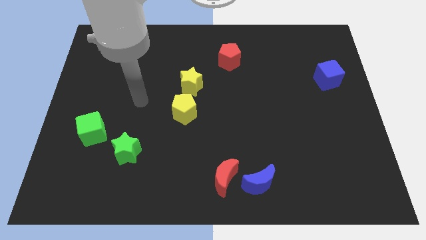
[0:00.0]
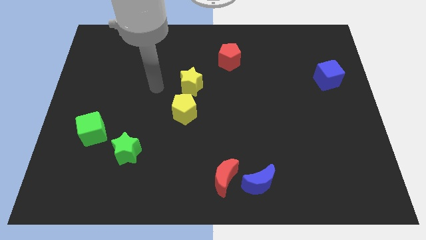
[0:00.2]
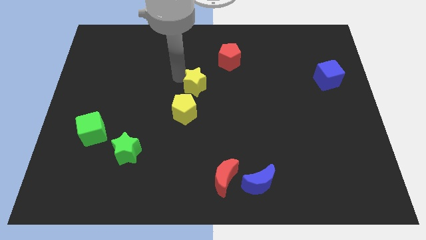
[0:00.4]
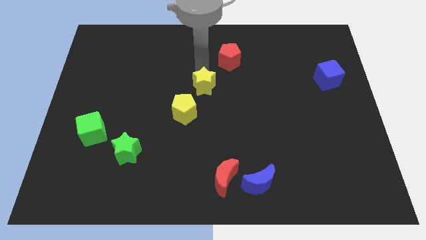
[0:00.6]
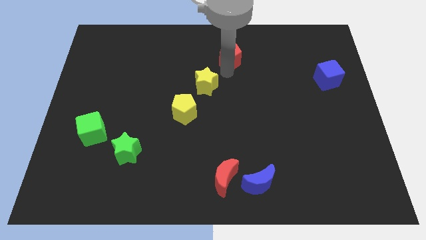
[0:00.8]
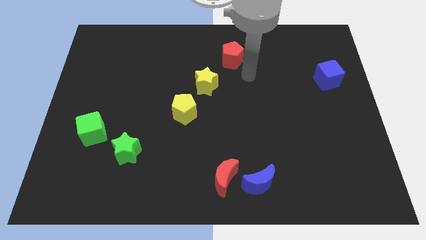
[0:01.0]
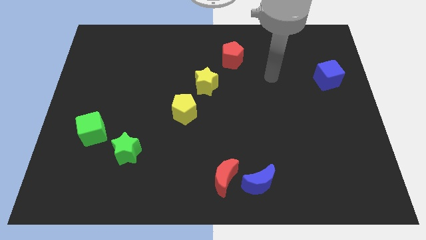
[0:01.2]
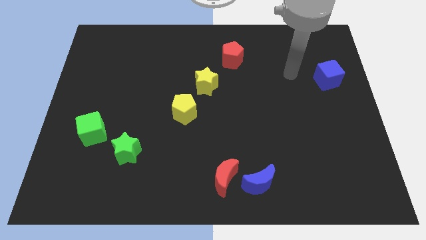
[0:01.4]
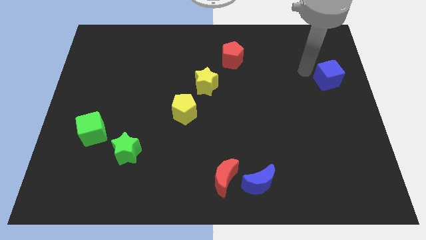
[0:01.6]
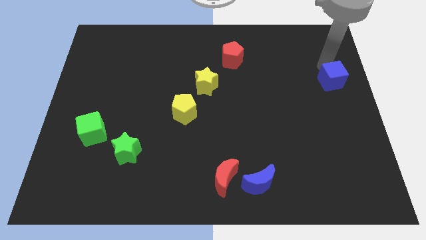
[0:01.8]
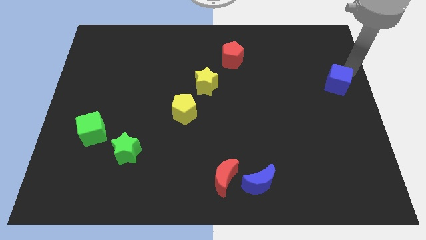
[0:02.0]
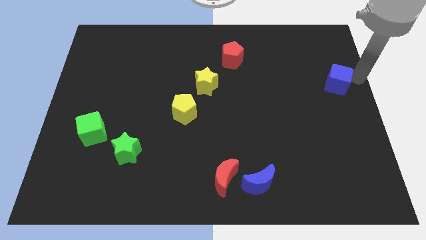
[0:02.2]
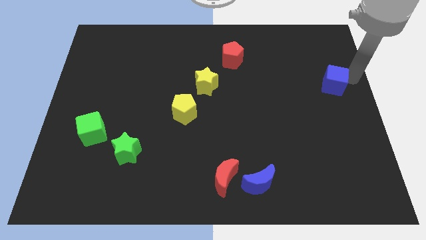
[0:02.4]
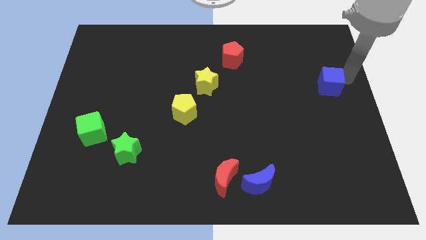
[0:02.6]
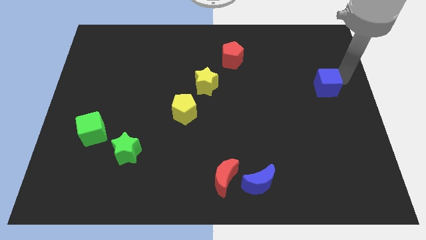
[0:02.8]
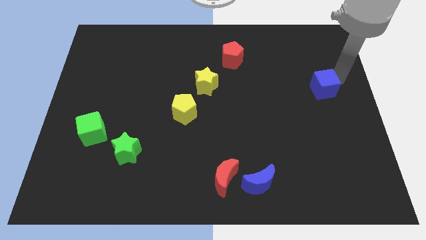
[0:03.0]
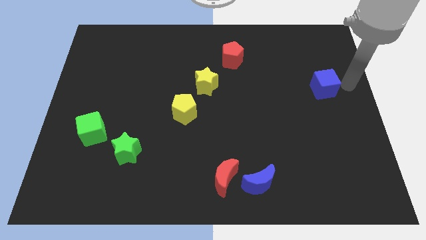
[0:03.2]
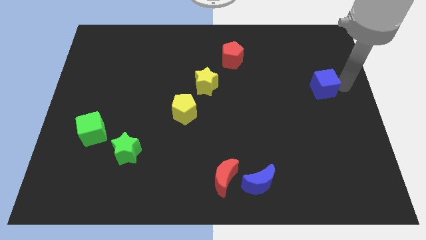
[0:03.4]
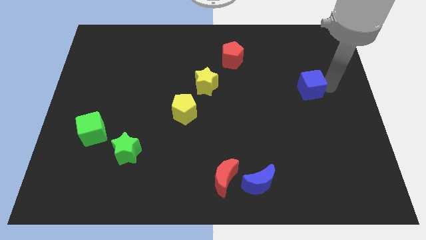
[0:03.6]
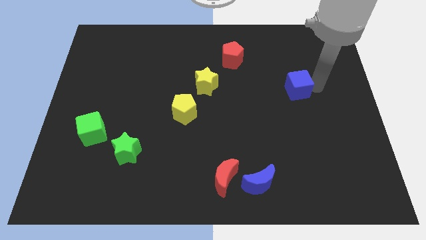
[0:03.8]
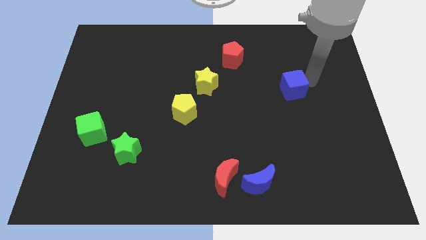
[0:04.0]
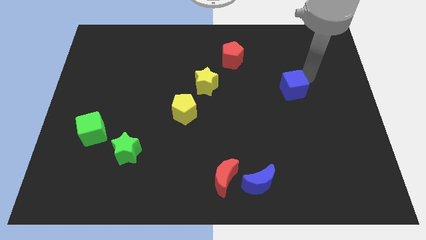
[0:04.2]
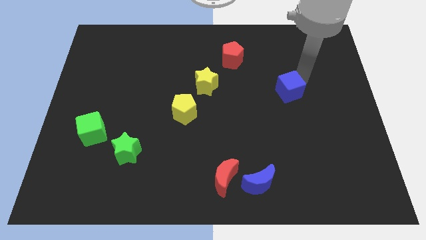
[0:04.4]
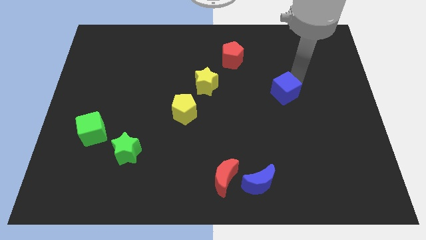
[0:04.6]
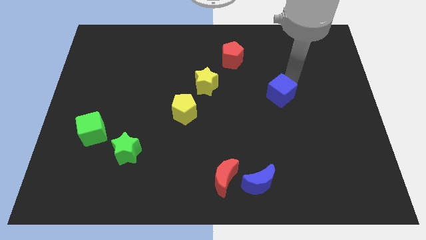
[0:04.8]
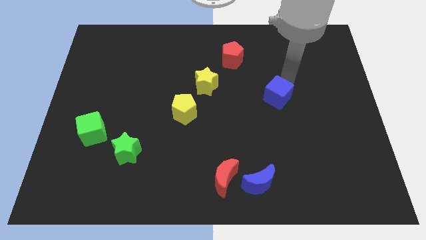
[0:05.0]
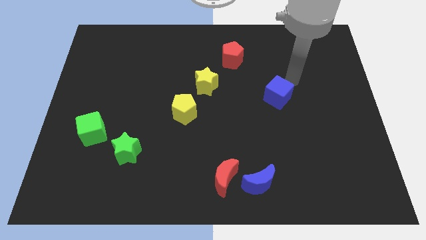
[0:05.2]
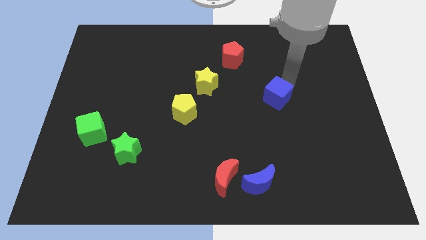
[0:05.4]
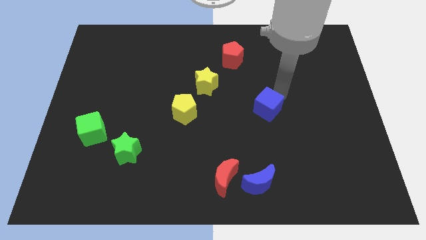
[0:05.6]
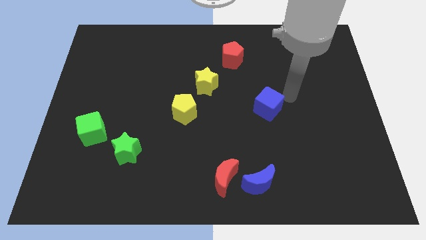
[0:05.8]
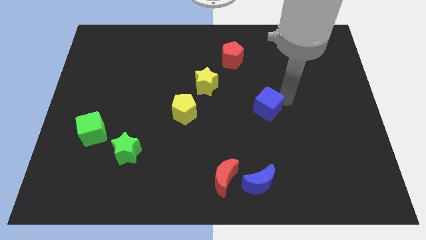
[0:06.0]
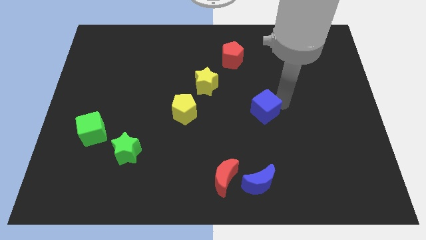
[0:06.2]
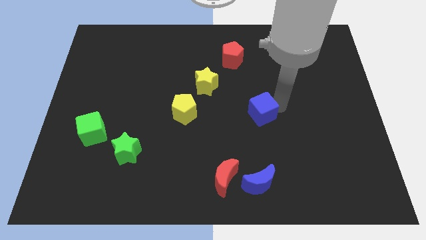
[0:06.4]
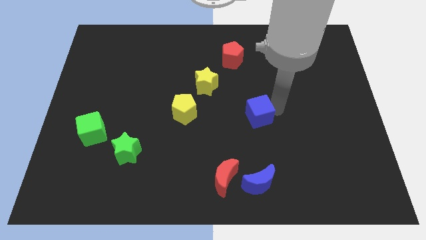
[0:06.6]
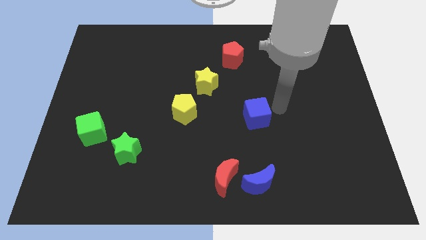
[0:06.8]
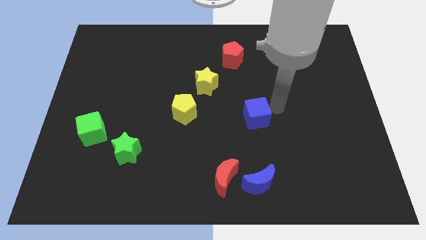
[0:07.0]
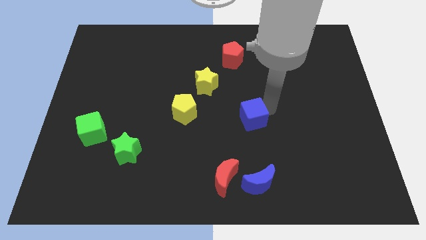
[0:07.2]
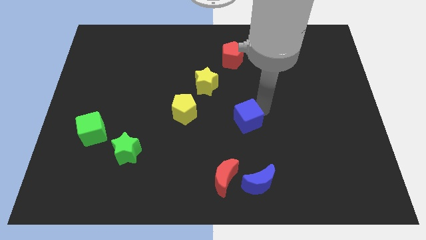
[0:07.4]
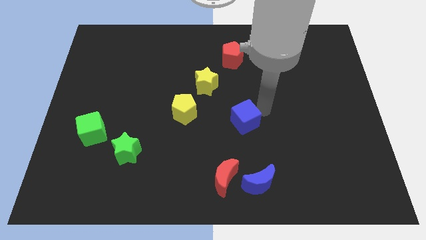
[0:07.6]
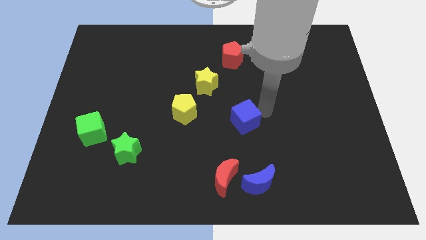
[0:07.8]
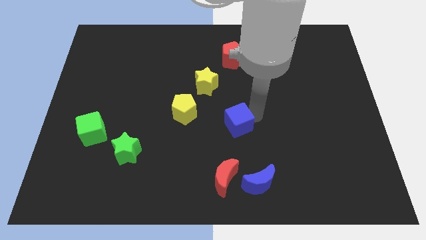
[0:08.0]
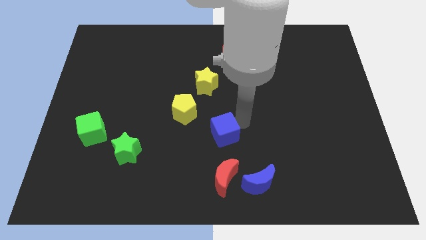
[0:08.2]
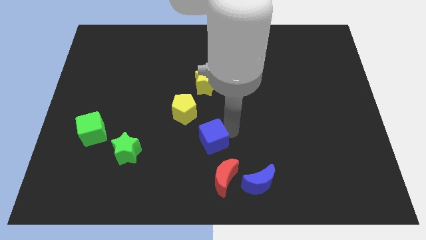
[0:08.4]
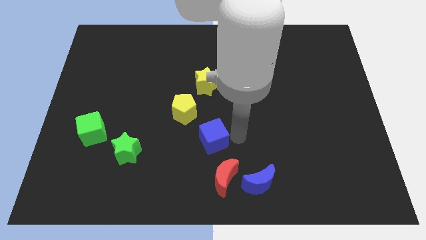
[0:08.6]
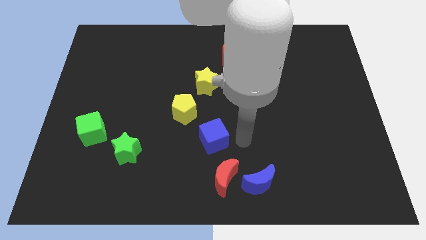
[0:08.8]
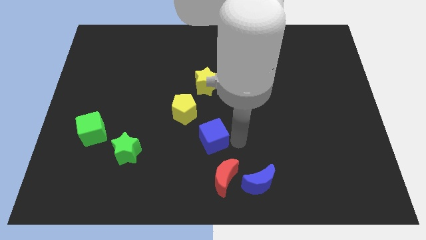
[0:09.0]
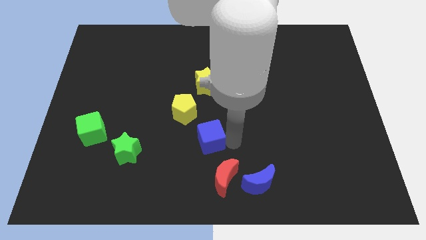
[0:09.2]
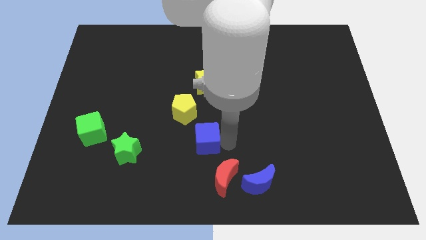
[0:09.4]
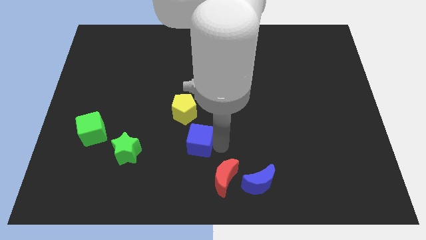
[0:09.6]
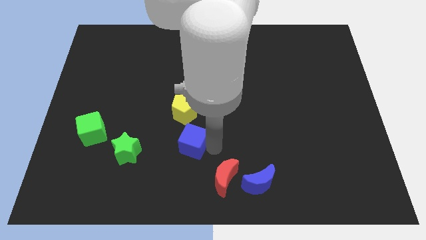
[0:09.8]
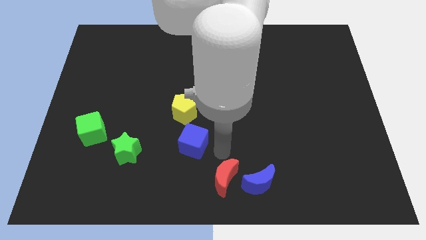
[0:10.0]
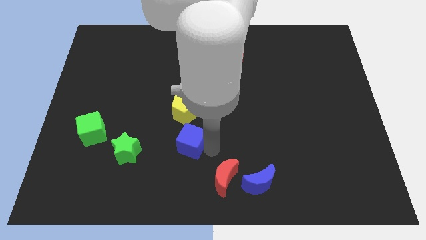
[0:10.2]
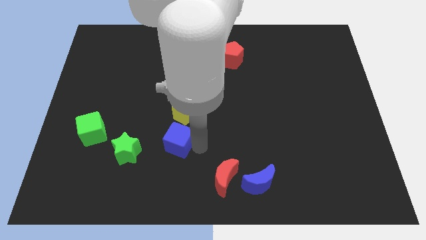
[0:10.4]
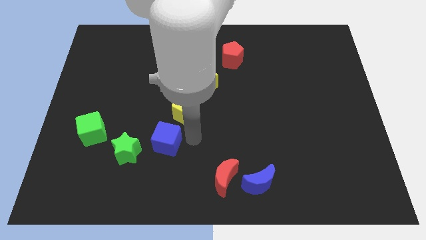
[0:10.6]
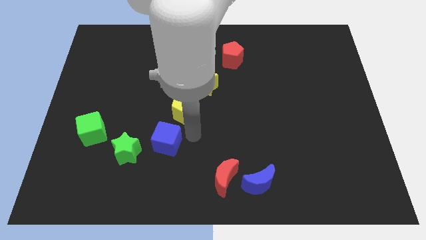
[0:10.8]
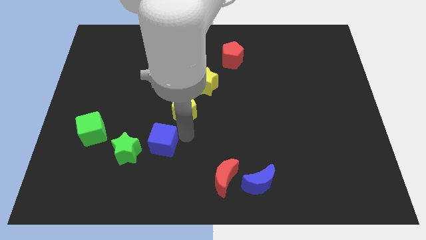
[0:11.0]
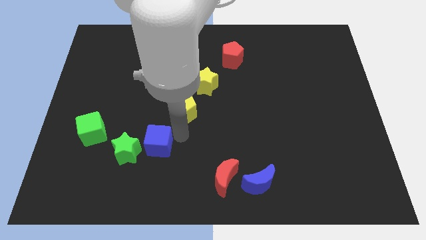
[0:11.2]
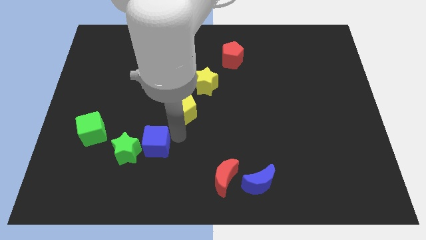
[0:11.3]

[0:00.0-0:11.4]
slide the blue cube towards the green star
